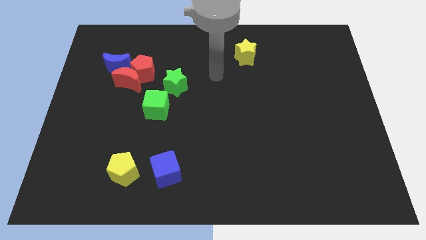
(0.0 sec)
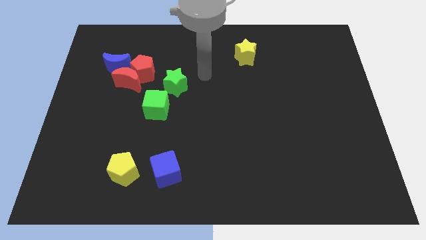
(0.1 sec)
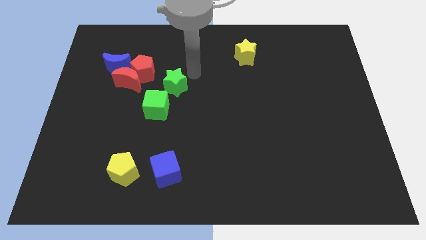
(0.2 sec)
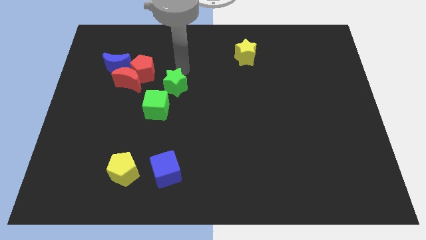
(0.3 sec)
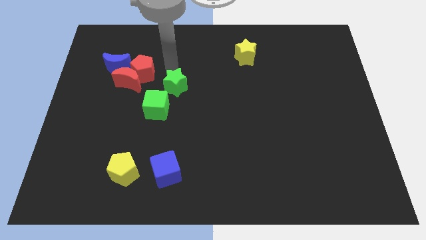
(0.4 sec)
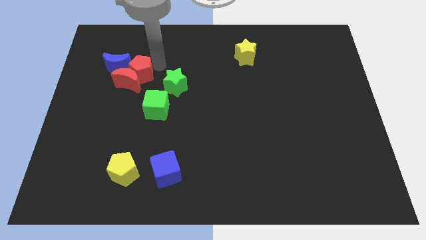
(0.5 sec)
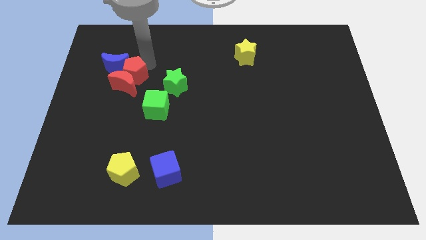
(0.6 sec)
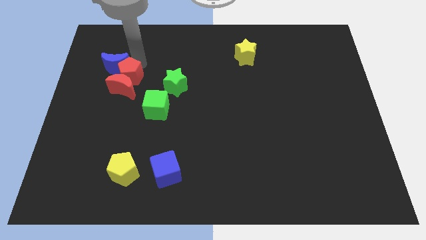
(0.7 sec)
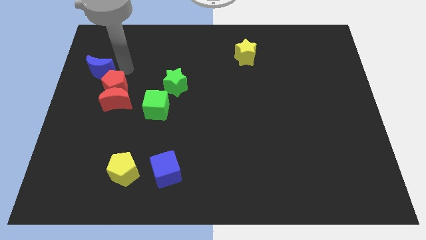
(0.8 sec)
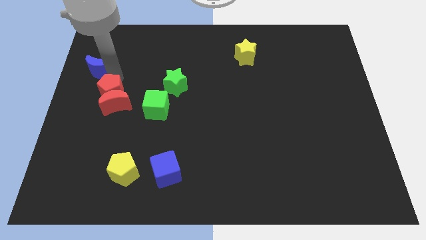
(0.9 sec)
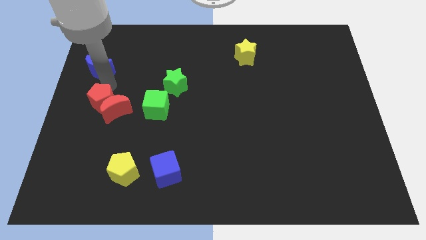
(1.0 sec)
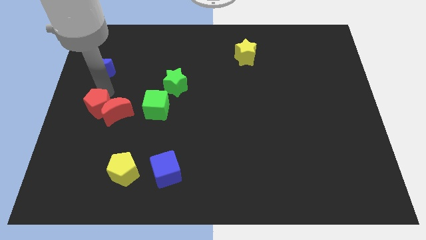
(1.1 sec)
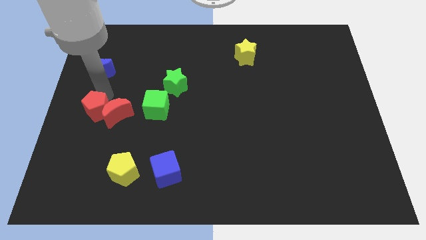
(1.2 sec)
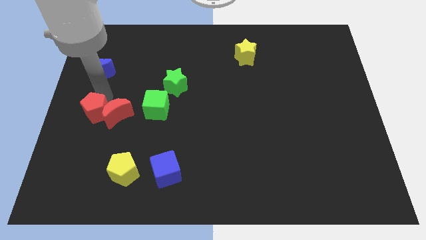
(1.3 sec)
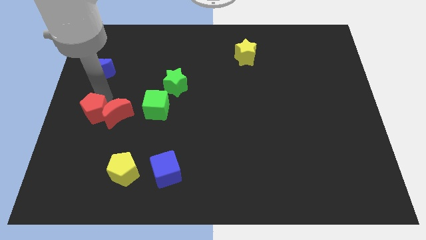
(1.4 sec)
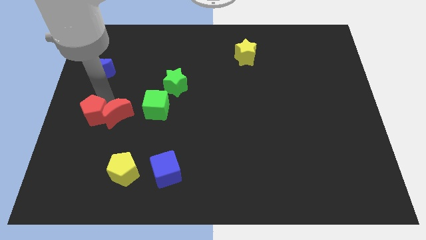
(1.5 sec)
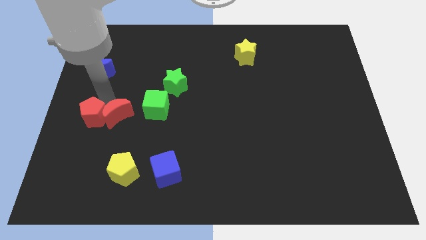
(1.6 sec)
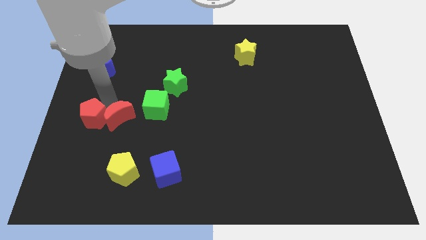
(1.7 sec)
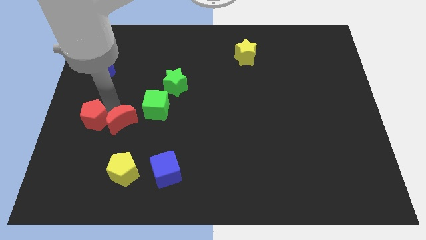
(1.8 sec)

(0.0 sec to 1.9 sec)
separate the red moon from the red pentagon and blue moon

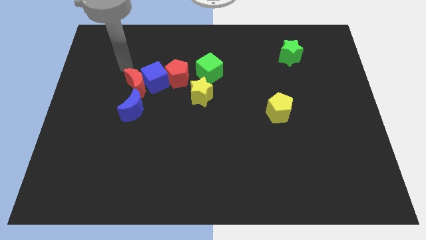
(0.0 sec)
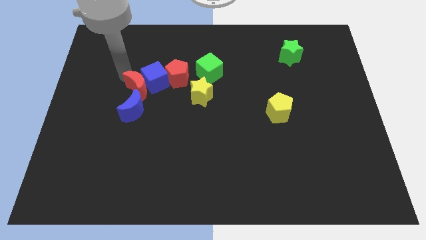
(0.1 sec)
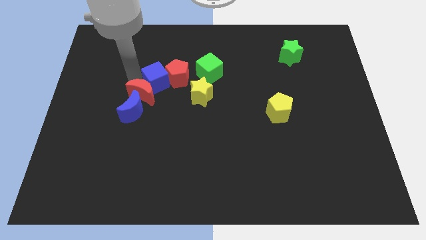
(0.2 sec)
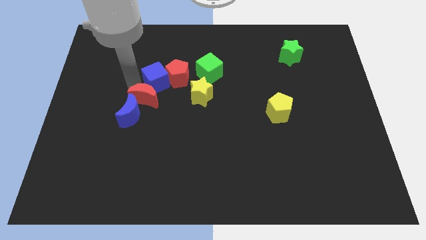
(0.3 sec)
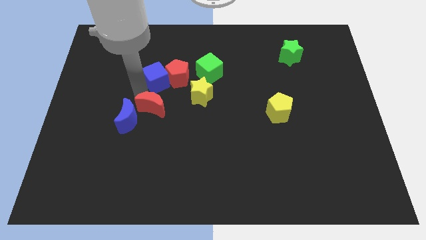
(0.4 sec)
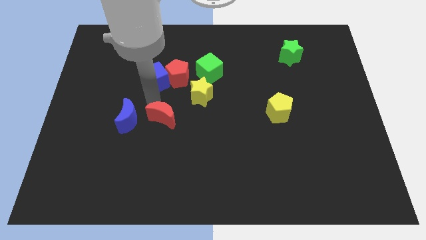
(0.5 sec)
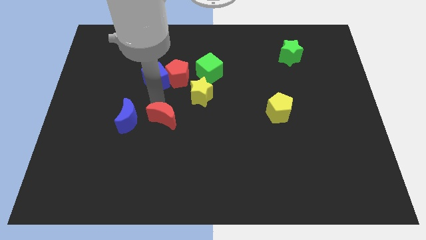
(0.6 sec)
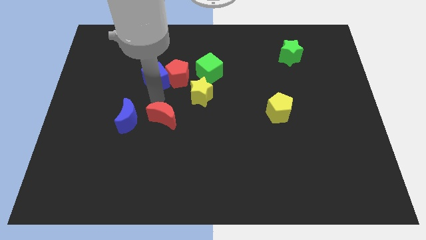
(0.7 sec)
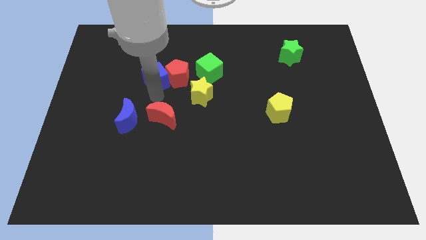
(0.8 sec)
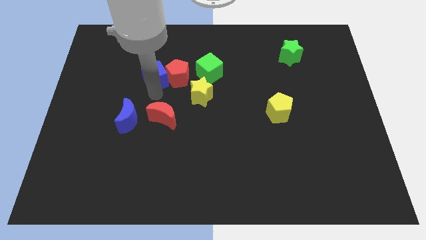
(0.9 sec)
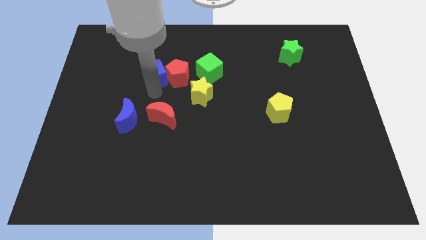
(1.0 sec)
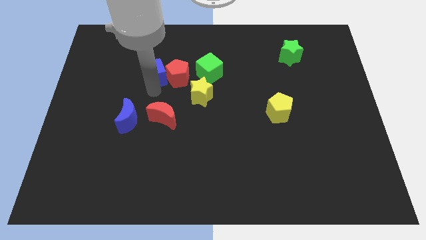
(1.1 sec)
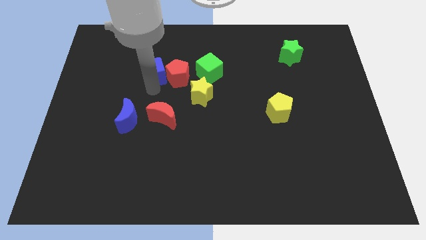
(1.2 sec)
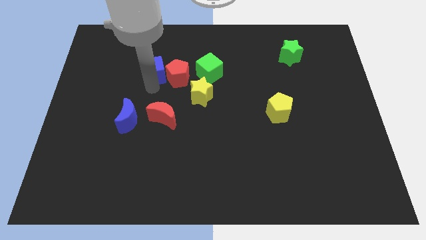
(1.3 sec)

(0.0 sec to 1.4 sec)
separate the blue cube from the red moon, red pentagon, and blue moon

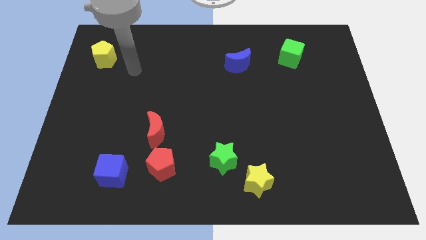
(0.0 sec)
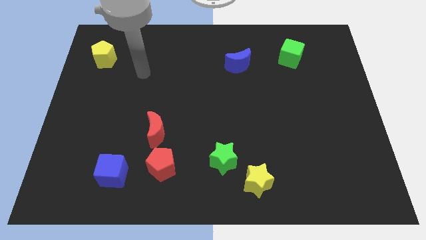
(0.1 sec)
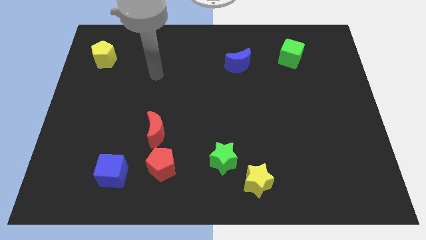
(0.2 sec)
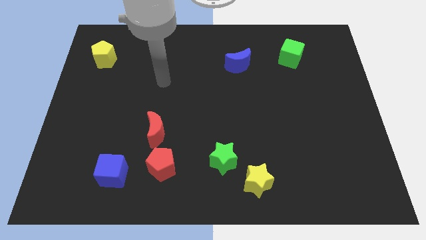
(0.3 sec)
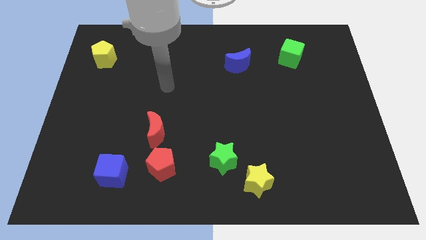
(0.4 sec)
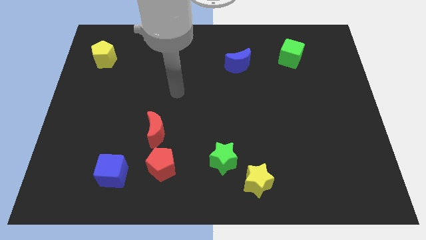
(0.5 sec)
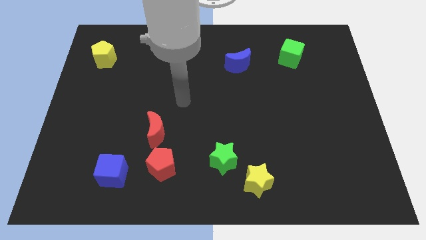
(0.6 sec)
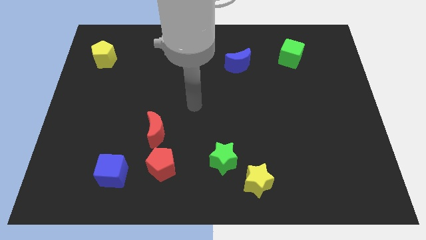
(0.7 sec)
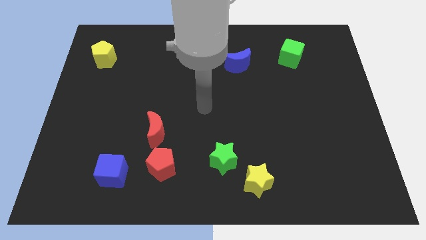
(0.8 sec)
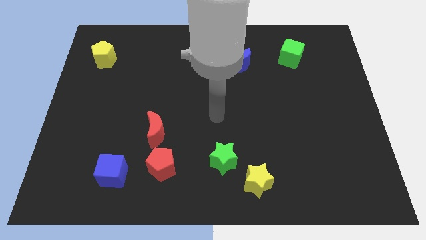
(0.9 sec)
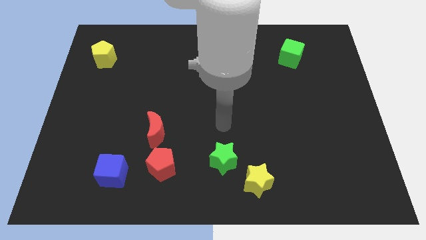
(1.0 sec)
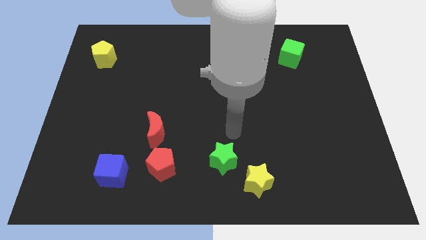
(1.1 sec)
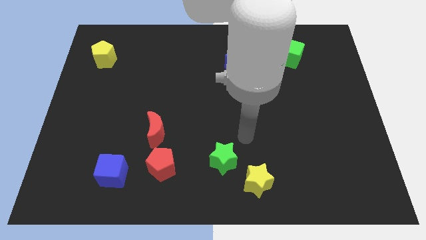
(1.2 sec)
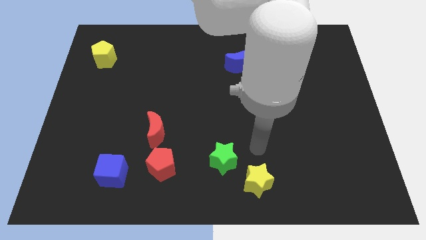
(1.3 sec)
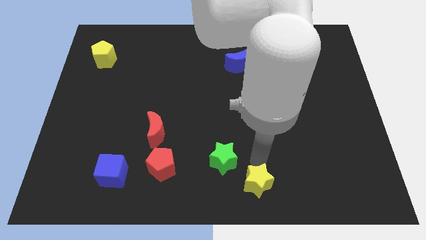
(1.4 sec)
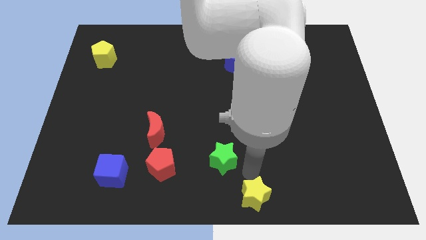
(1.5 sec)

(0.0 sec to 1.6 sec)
pull the green star apart from the yellow star

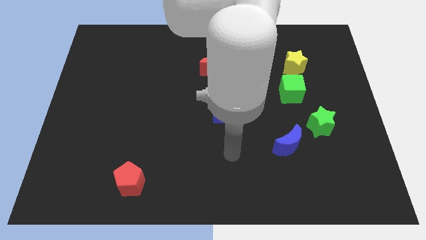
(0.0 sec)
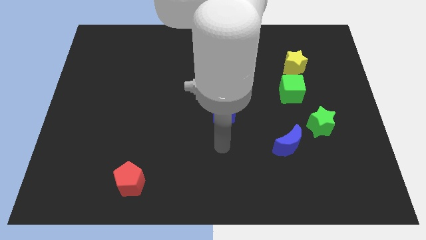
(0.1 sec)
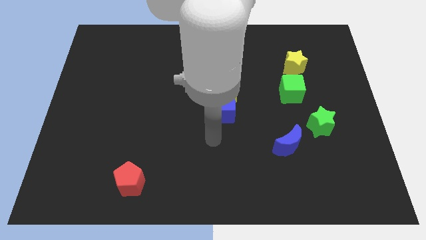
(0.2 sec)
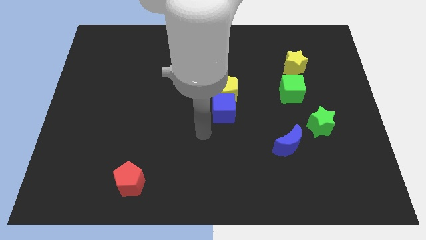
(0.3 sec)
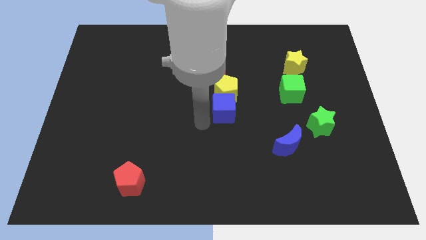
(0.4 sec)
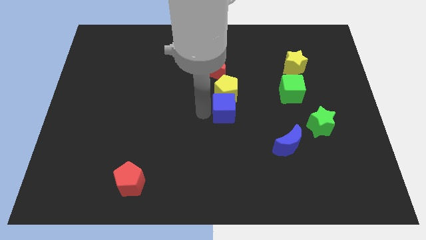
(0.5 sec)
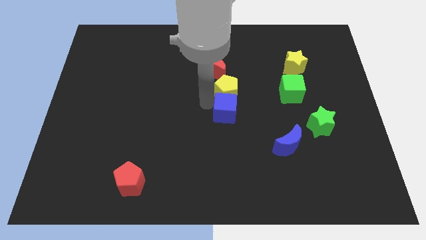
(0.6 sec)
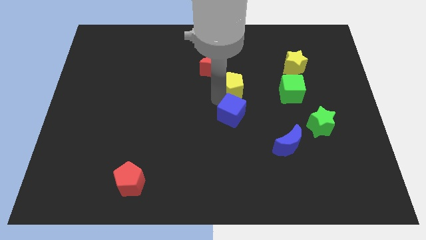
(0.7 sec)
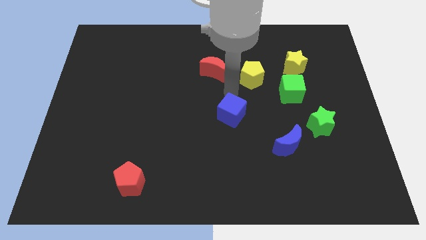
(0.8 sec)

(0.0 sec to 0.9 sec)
separate the blue cube from the yellow pentagon

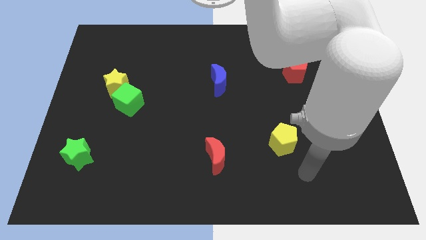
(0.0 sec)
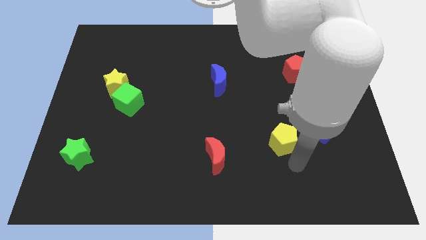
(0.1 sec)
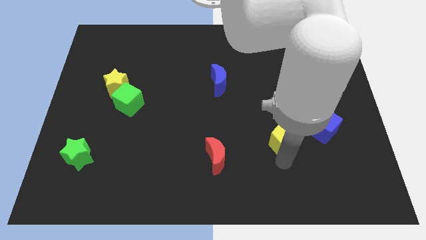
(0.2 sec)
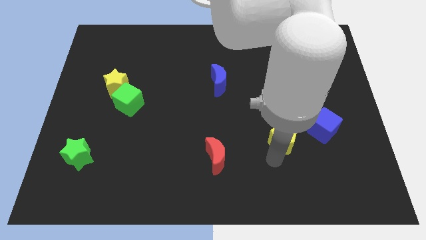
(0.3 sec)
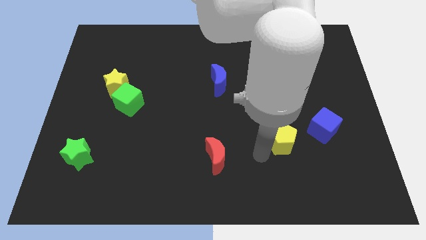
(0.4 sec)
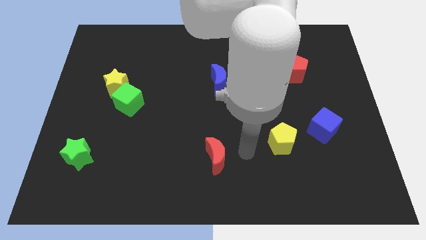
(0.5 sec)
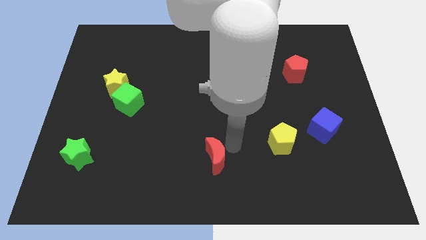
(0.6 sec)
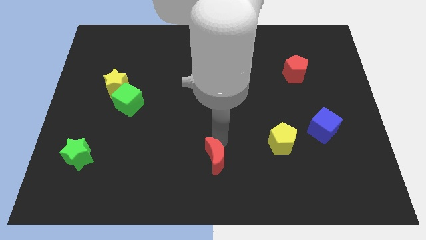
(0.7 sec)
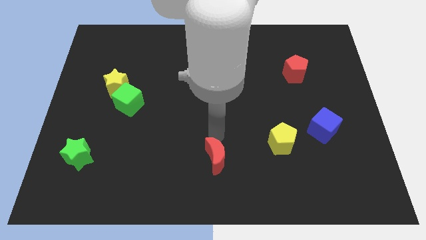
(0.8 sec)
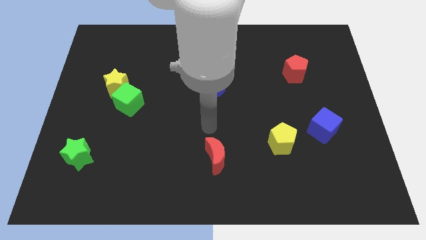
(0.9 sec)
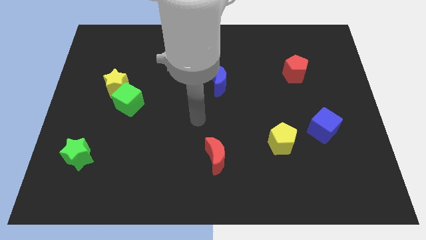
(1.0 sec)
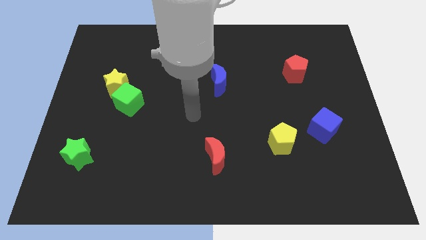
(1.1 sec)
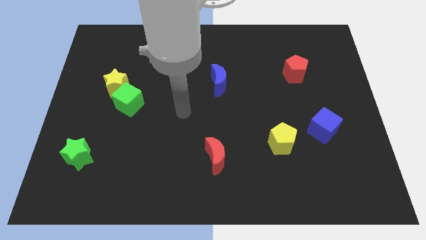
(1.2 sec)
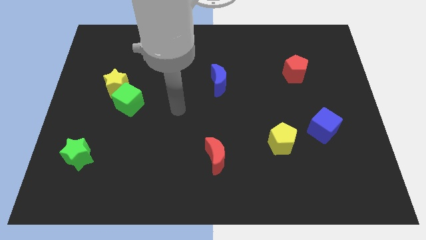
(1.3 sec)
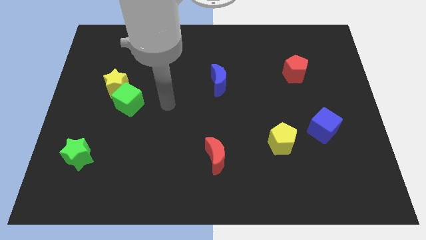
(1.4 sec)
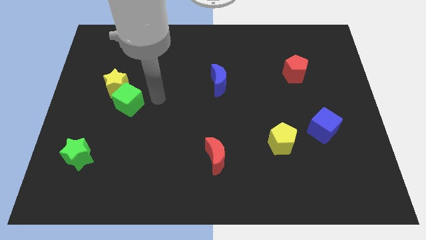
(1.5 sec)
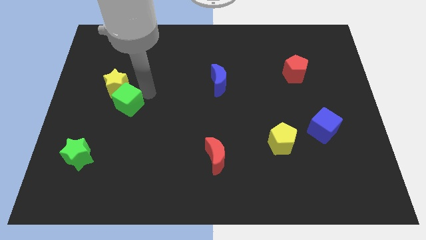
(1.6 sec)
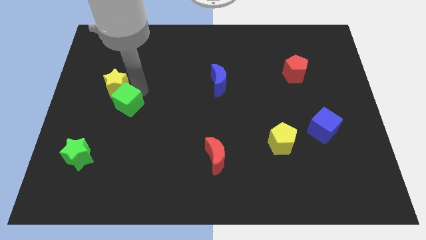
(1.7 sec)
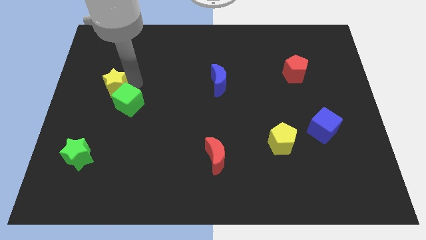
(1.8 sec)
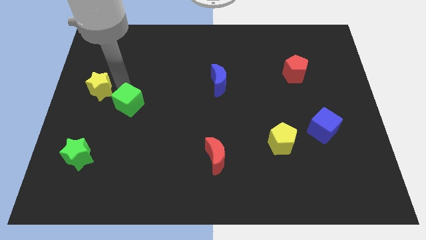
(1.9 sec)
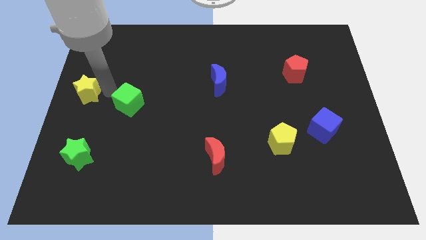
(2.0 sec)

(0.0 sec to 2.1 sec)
separate the green cube from the yellow star

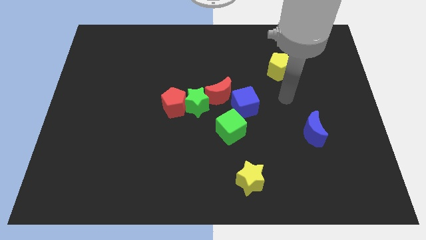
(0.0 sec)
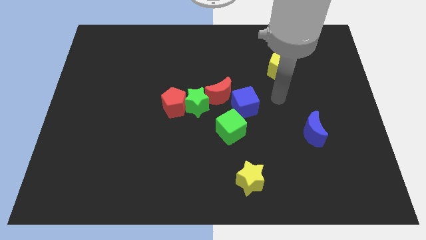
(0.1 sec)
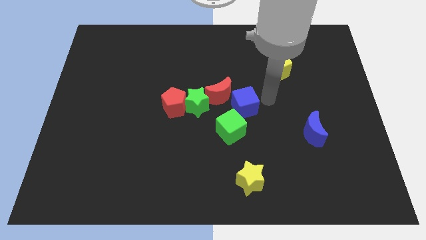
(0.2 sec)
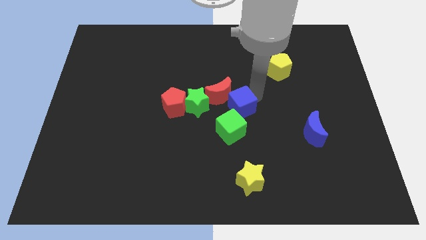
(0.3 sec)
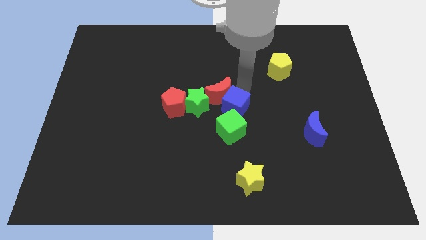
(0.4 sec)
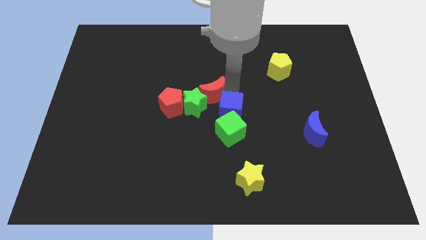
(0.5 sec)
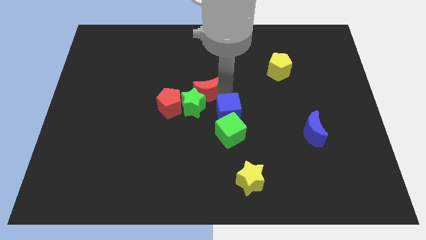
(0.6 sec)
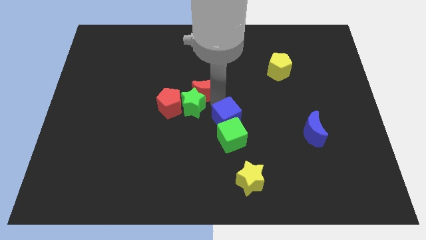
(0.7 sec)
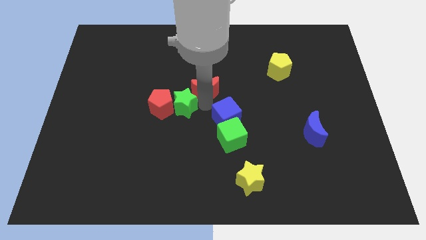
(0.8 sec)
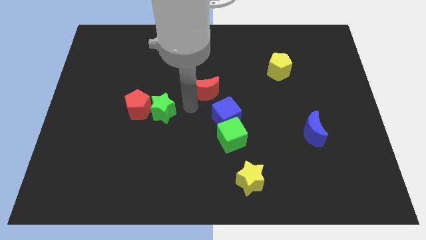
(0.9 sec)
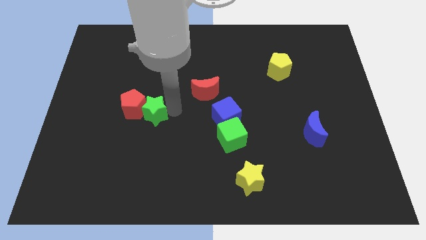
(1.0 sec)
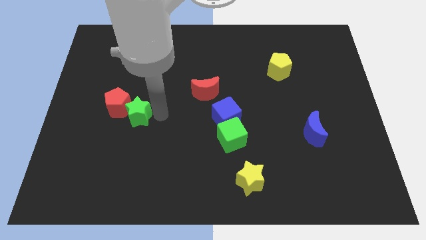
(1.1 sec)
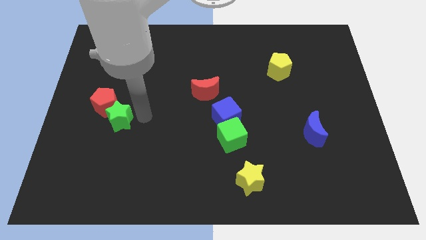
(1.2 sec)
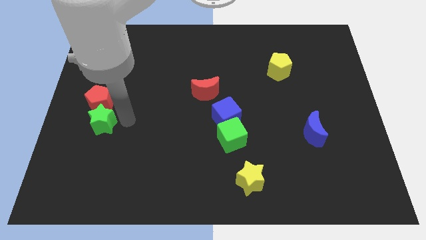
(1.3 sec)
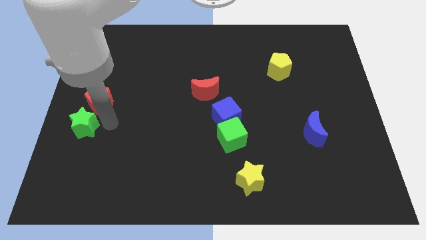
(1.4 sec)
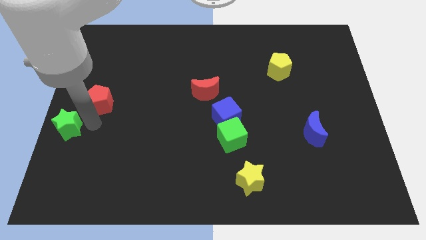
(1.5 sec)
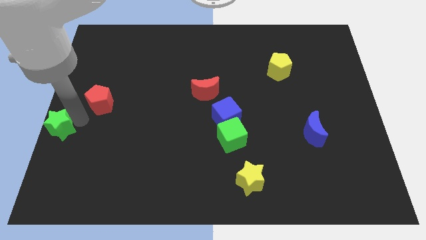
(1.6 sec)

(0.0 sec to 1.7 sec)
pull the red pentagon apart from the green star
